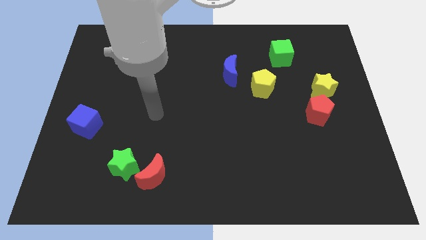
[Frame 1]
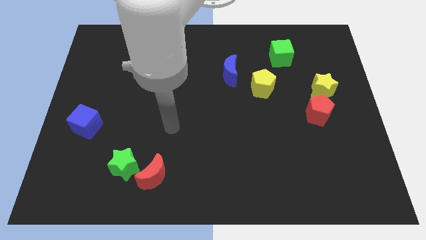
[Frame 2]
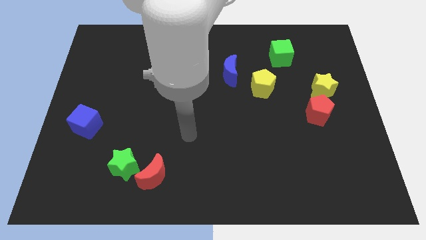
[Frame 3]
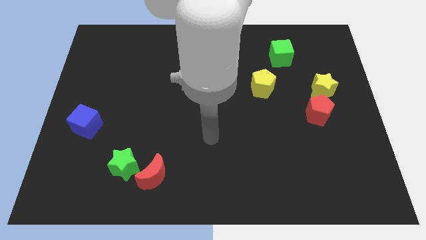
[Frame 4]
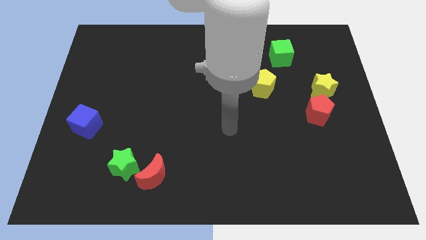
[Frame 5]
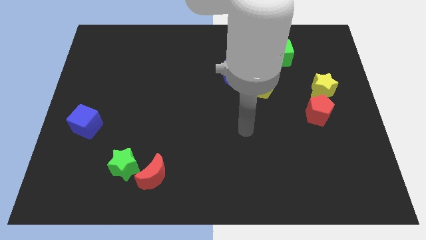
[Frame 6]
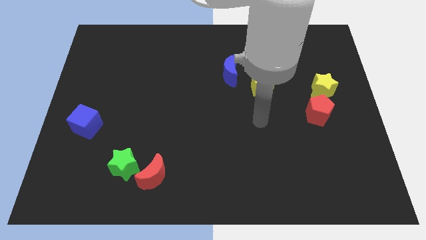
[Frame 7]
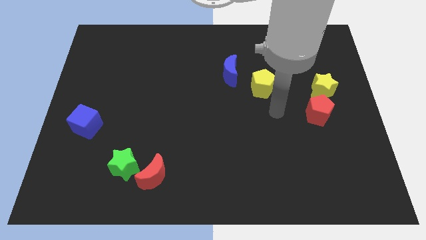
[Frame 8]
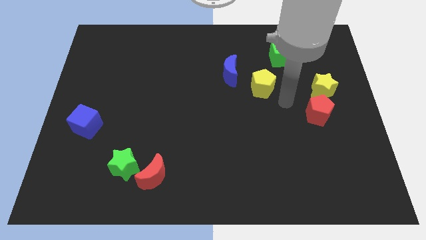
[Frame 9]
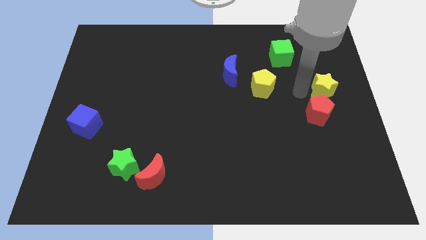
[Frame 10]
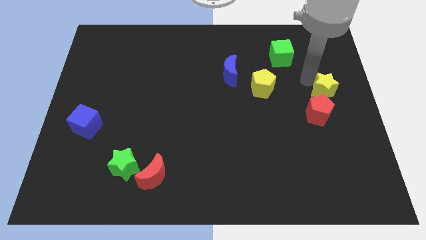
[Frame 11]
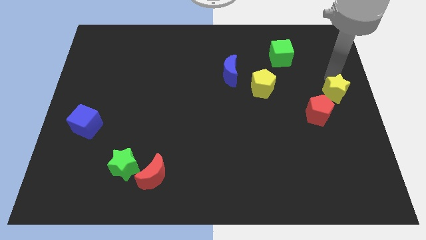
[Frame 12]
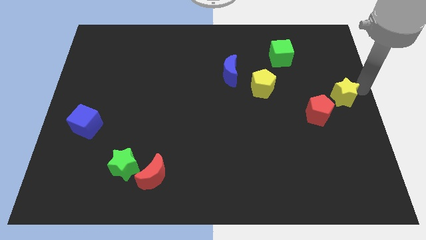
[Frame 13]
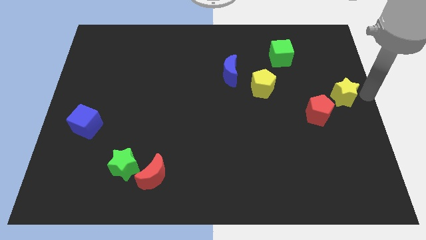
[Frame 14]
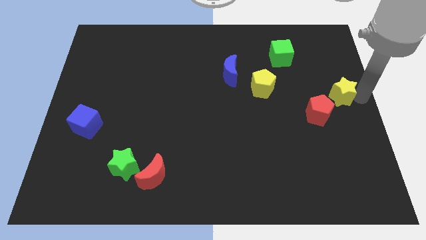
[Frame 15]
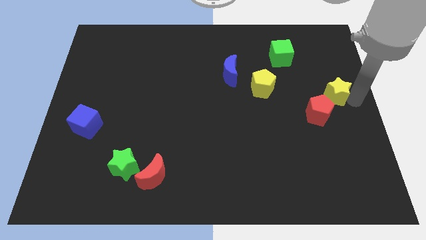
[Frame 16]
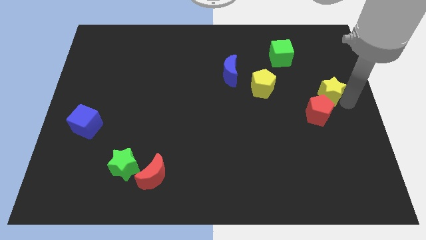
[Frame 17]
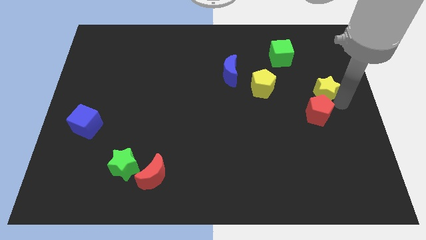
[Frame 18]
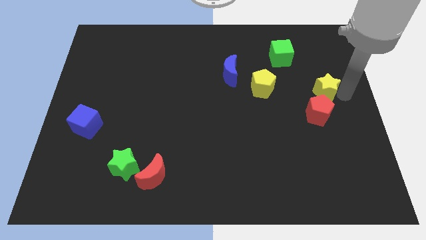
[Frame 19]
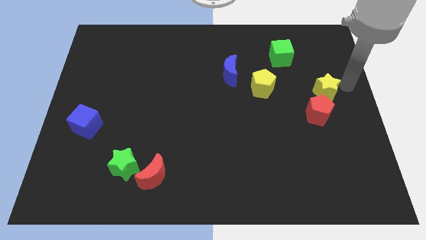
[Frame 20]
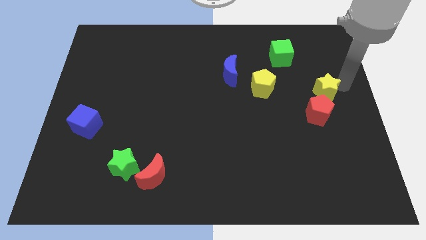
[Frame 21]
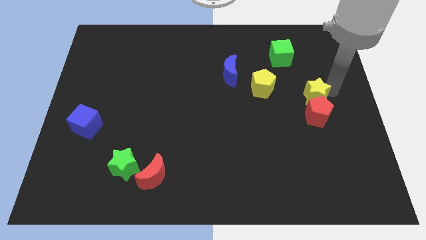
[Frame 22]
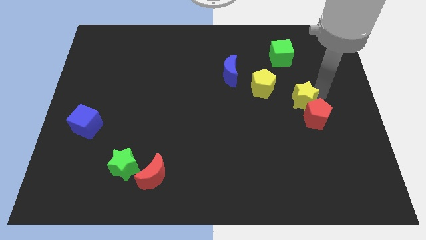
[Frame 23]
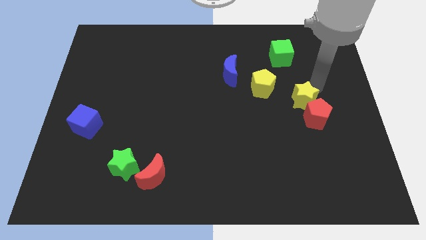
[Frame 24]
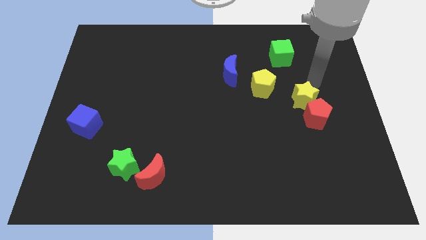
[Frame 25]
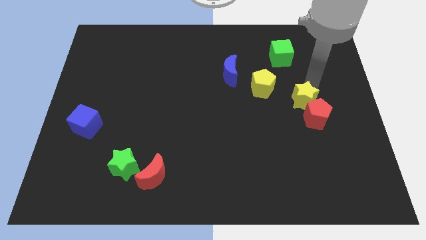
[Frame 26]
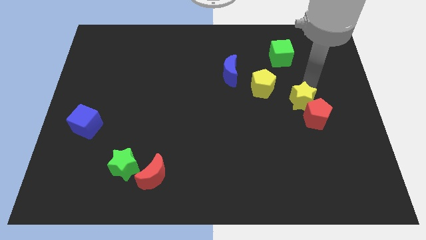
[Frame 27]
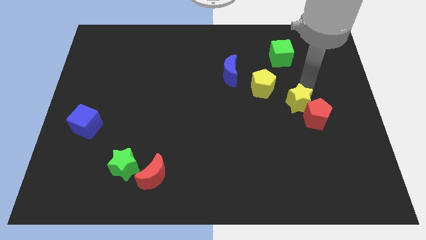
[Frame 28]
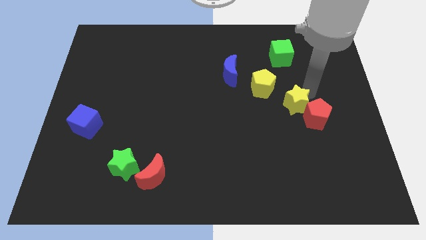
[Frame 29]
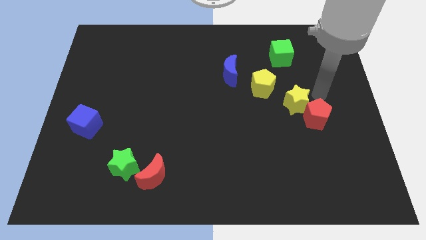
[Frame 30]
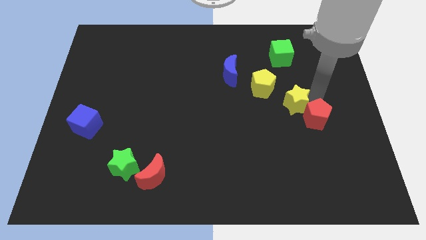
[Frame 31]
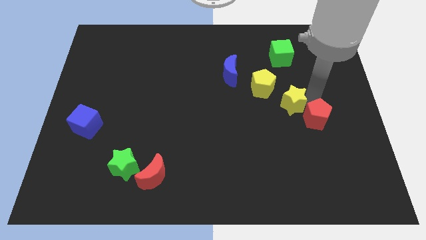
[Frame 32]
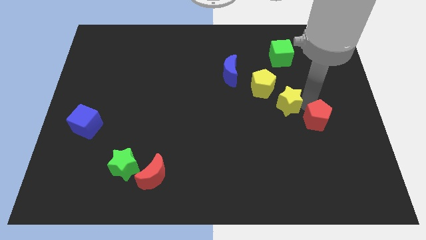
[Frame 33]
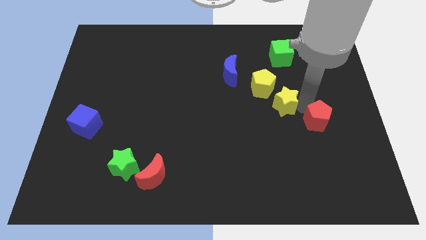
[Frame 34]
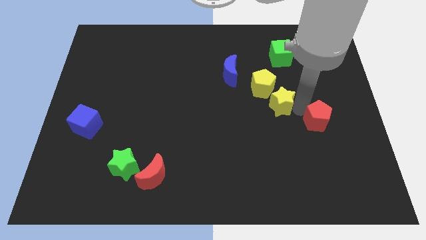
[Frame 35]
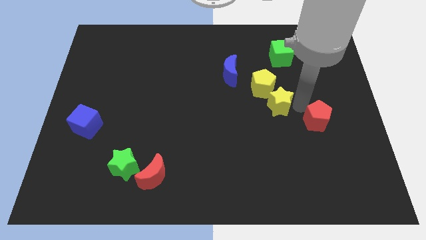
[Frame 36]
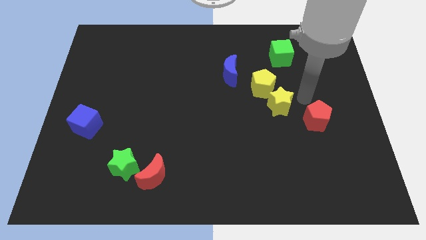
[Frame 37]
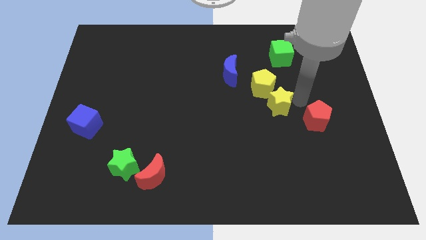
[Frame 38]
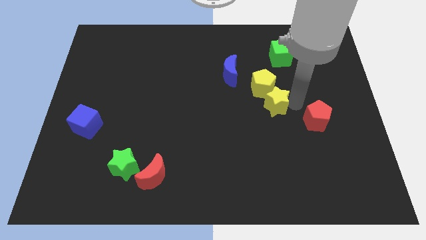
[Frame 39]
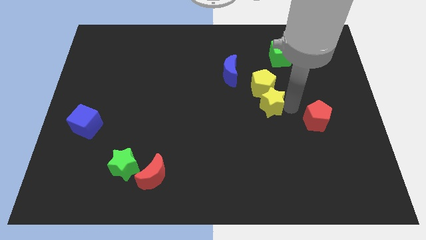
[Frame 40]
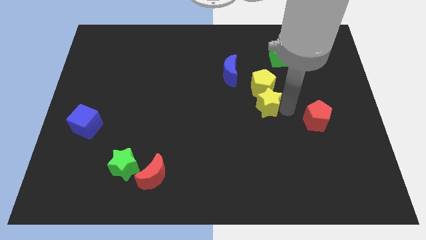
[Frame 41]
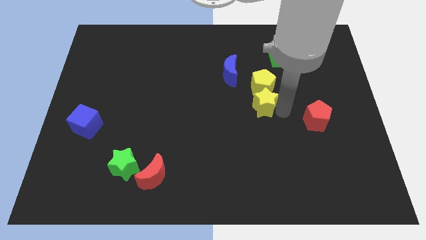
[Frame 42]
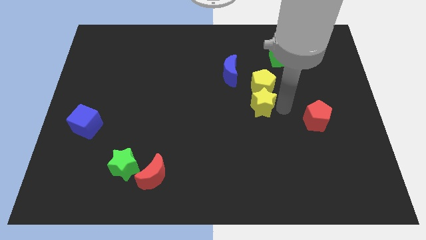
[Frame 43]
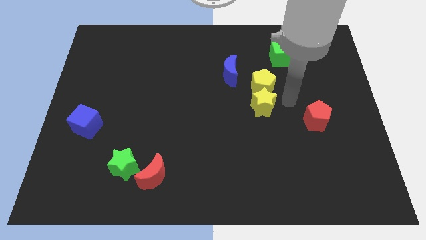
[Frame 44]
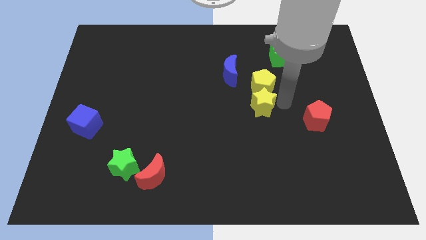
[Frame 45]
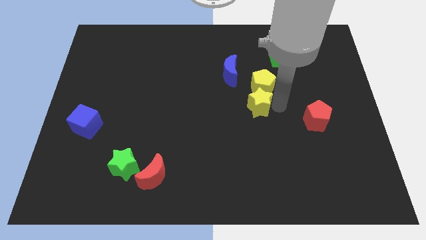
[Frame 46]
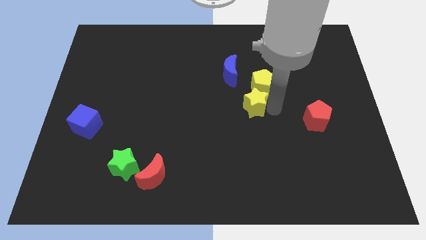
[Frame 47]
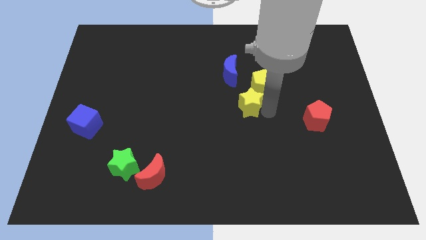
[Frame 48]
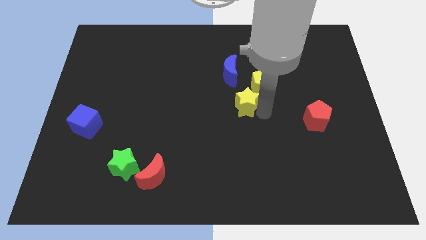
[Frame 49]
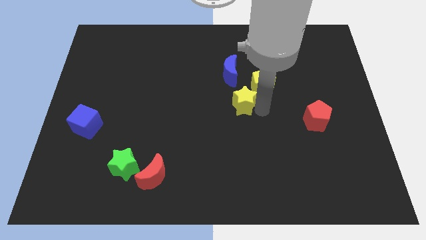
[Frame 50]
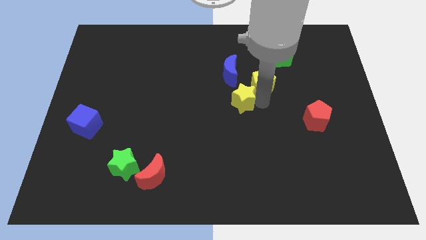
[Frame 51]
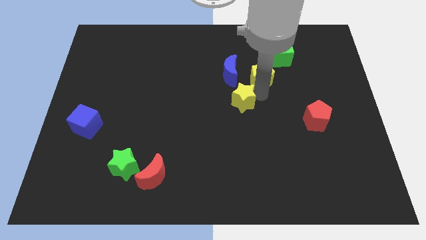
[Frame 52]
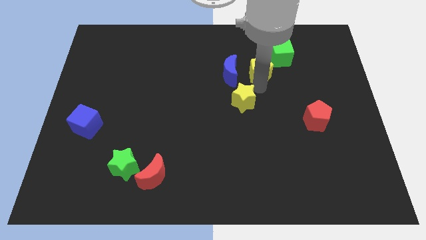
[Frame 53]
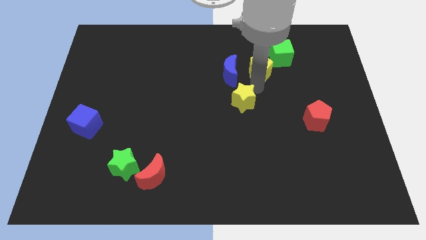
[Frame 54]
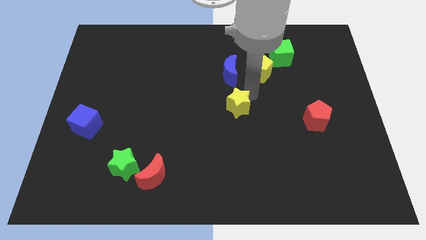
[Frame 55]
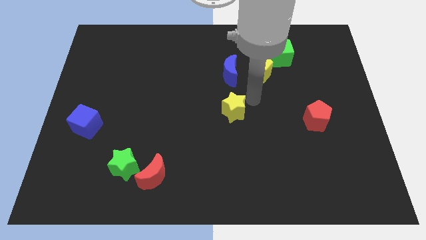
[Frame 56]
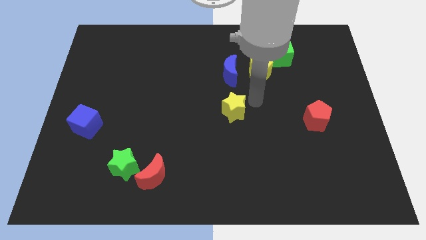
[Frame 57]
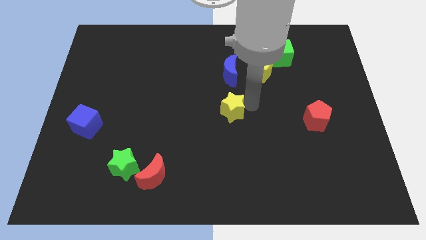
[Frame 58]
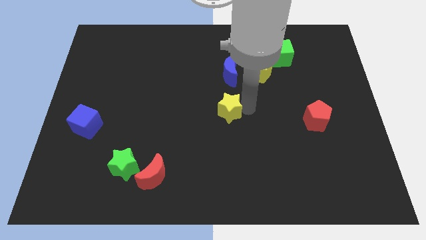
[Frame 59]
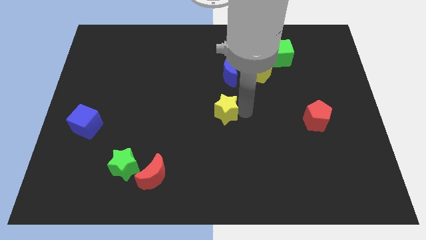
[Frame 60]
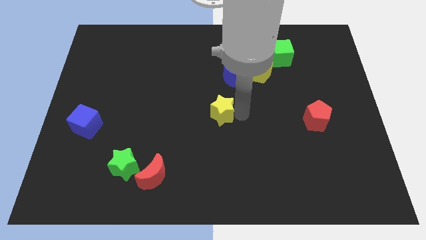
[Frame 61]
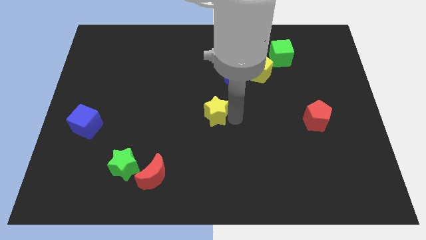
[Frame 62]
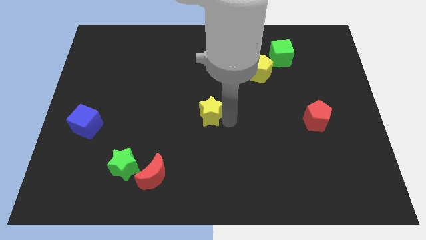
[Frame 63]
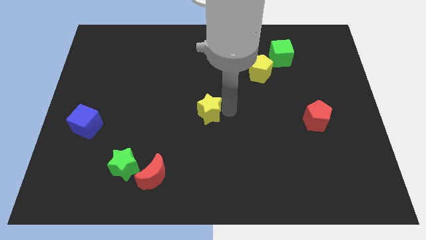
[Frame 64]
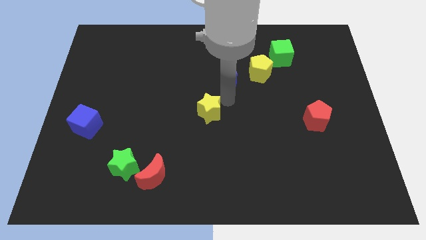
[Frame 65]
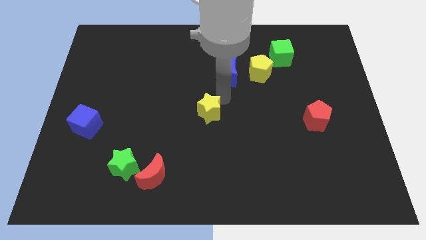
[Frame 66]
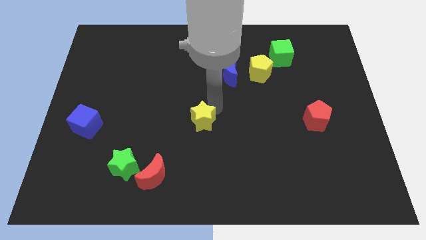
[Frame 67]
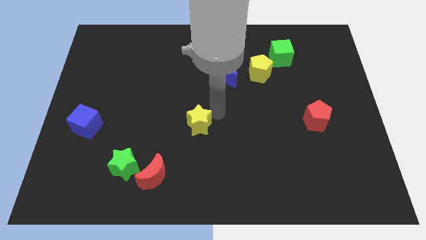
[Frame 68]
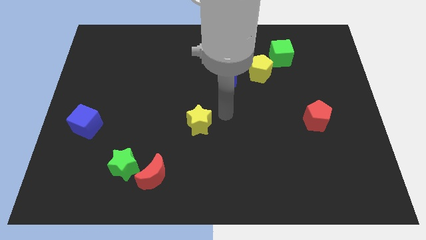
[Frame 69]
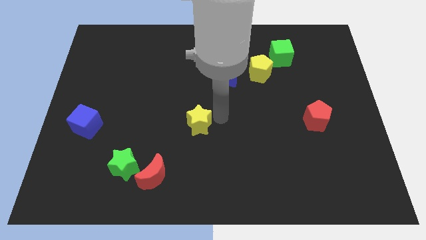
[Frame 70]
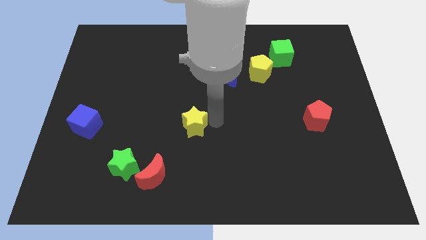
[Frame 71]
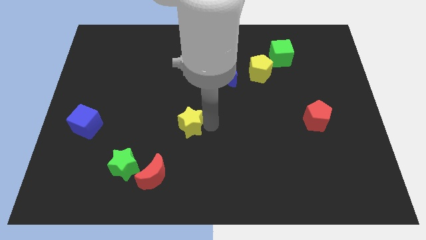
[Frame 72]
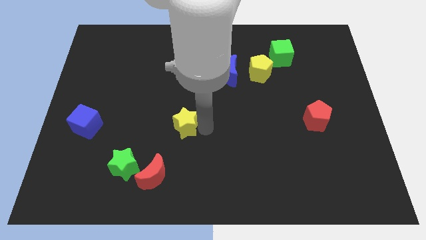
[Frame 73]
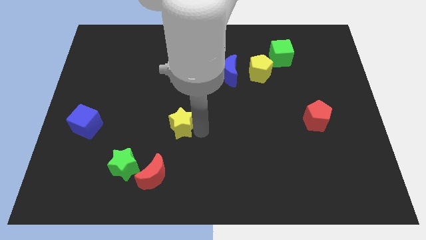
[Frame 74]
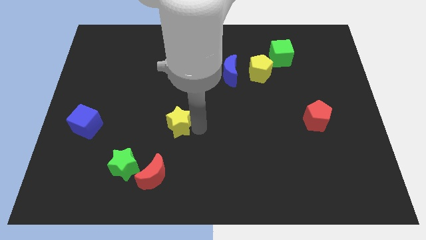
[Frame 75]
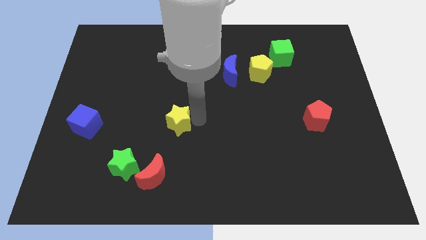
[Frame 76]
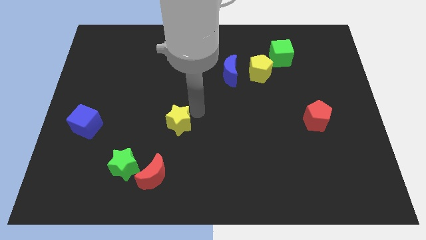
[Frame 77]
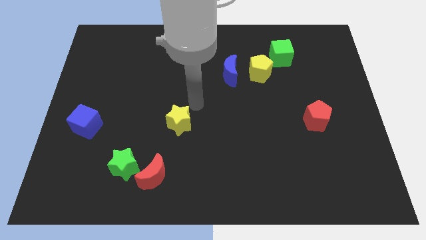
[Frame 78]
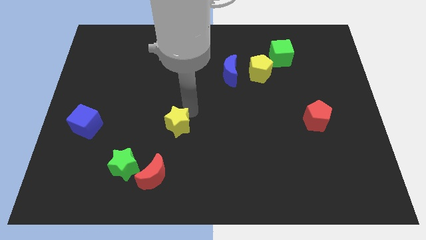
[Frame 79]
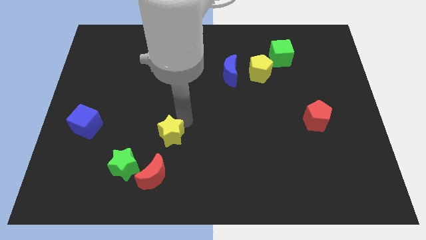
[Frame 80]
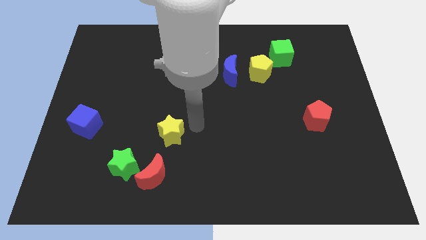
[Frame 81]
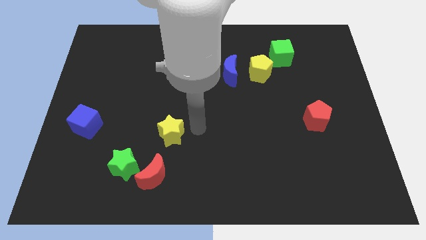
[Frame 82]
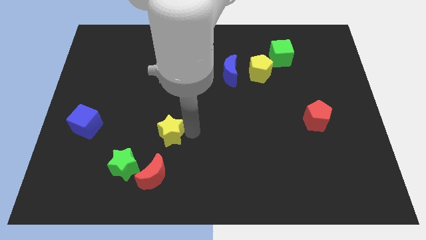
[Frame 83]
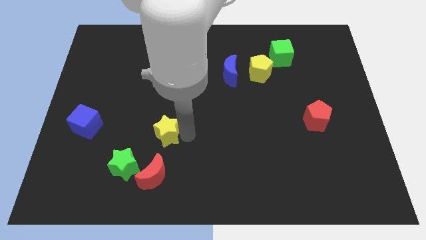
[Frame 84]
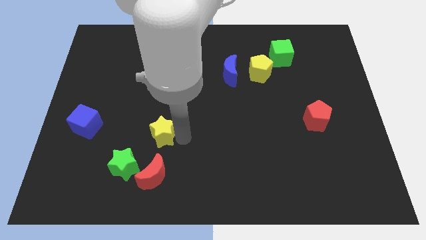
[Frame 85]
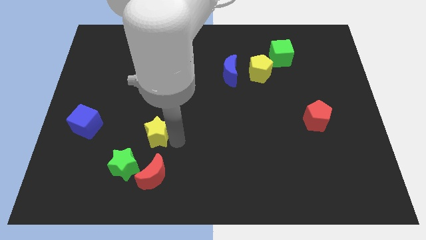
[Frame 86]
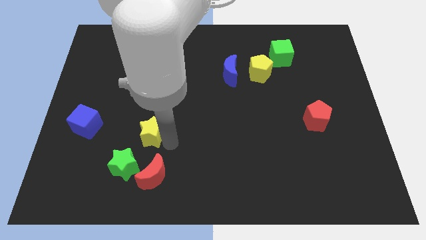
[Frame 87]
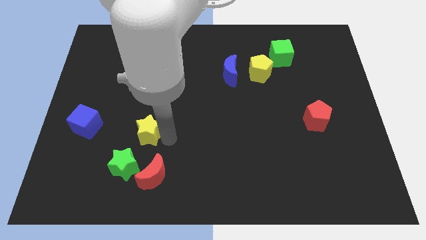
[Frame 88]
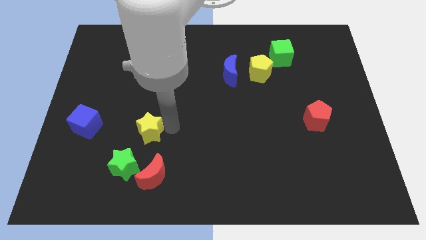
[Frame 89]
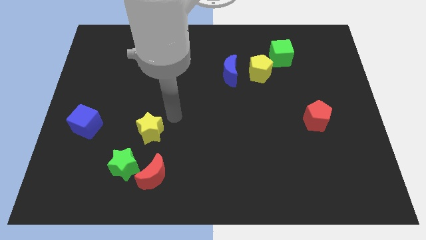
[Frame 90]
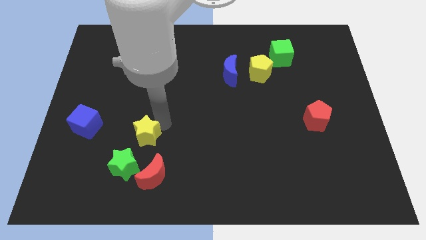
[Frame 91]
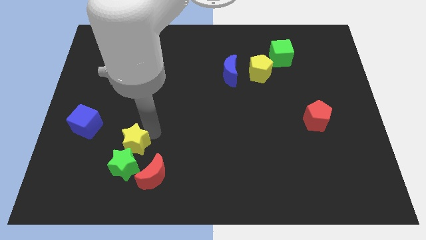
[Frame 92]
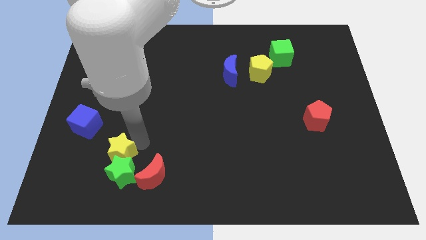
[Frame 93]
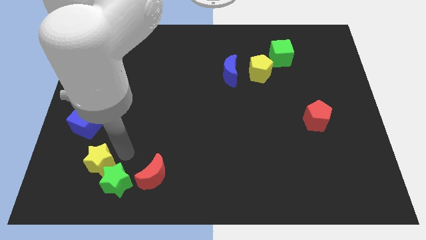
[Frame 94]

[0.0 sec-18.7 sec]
push the yellow star to the left of the green star
